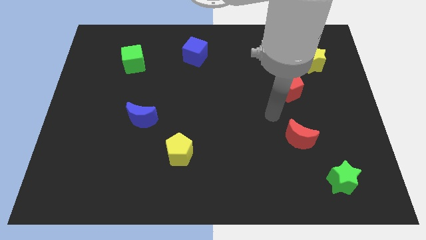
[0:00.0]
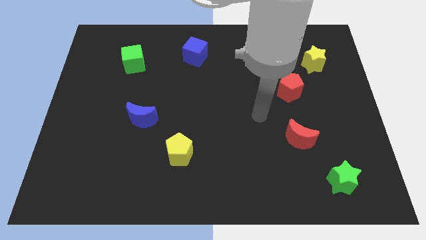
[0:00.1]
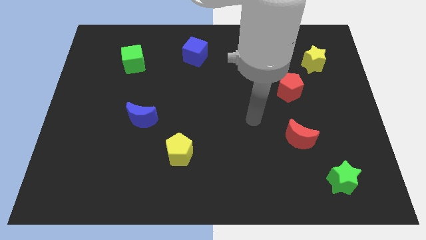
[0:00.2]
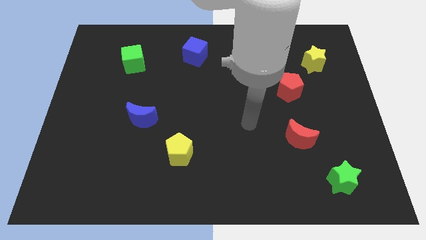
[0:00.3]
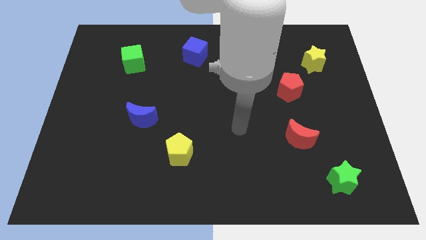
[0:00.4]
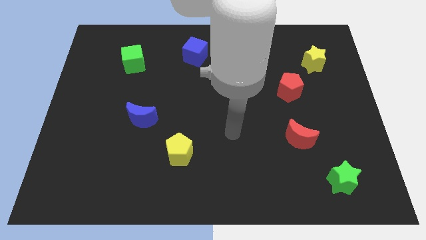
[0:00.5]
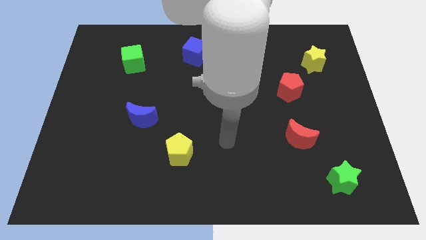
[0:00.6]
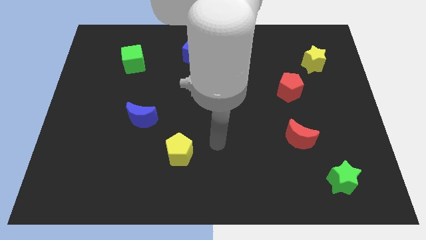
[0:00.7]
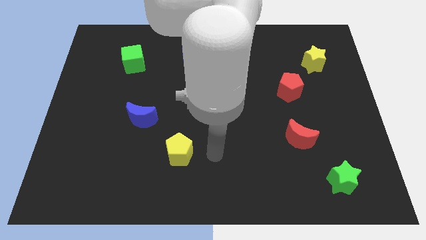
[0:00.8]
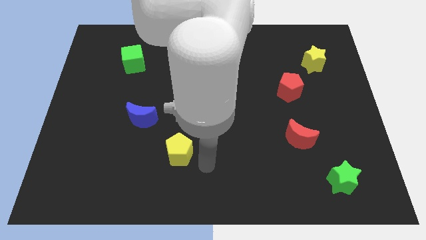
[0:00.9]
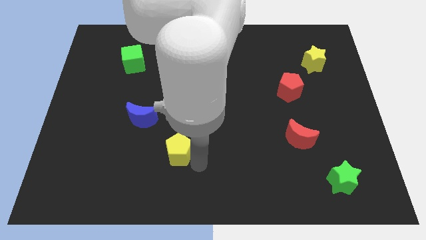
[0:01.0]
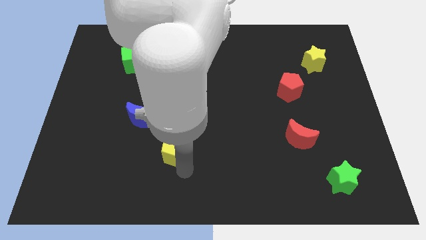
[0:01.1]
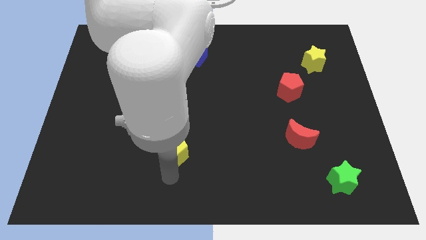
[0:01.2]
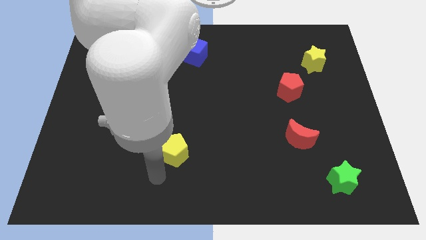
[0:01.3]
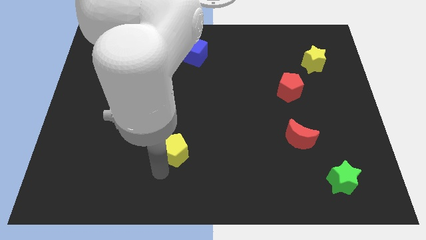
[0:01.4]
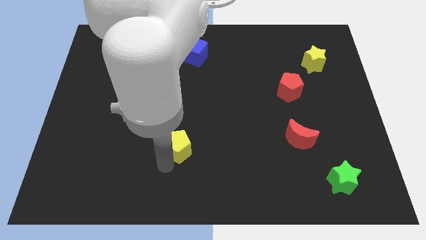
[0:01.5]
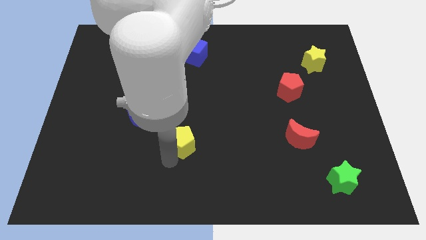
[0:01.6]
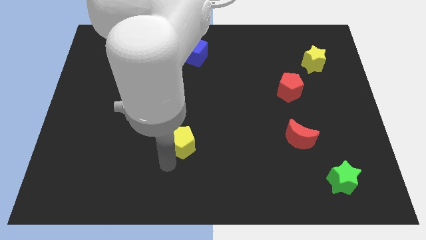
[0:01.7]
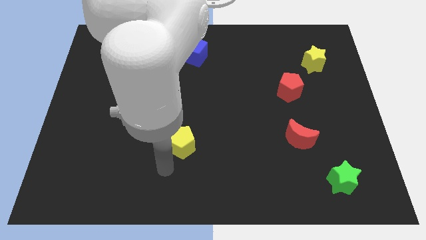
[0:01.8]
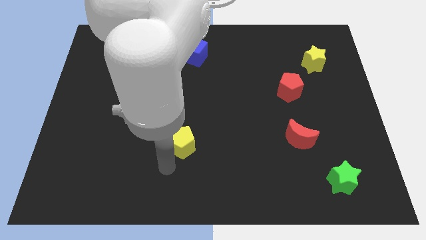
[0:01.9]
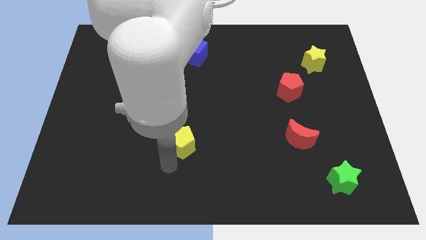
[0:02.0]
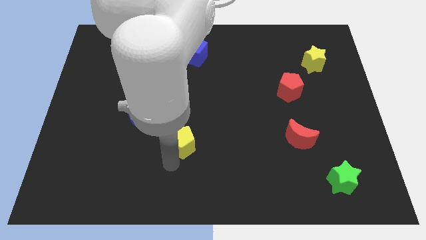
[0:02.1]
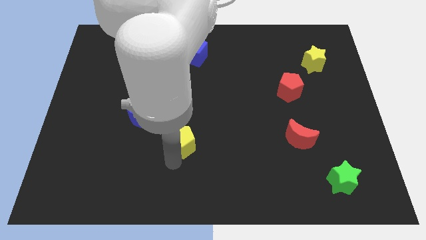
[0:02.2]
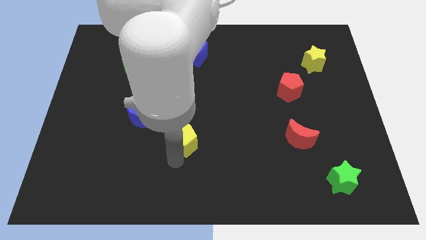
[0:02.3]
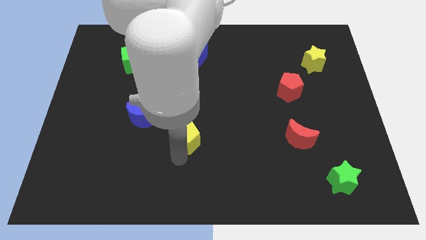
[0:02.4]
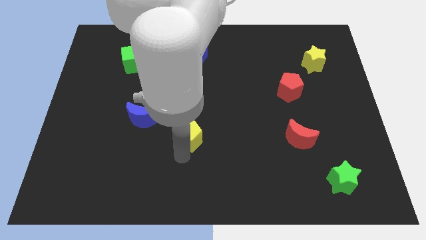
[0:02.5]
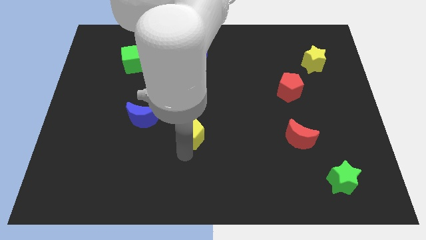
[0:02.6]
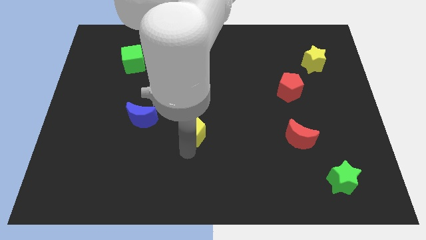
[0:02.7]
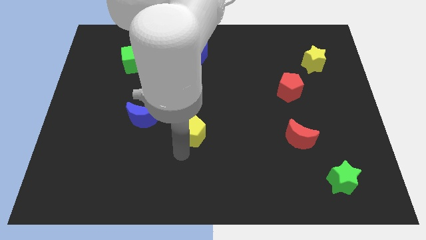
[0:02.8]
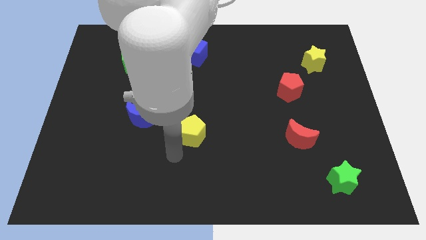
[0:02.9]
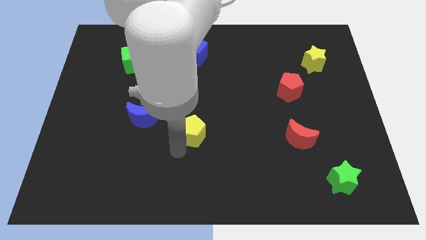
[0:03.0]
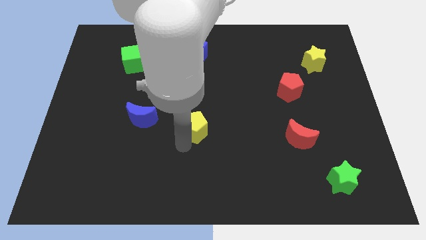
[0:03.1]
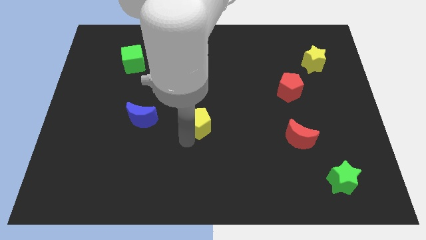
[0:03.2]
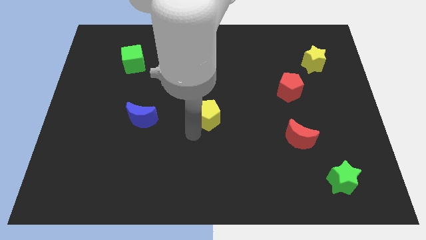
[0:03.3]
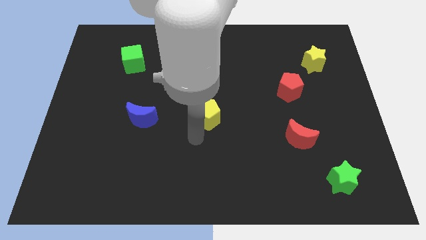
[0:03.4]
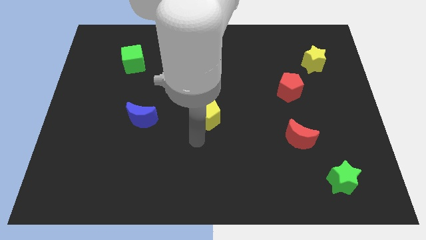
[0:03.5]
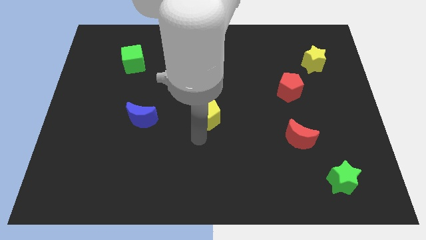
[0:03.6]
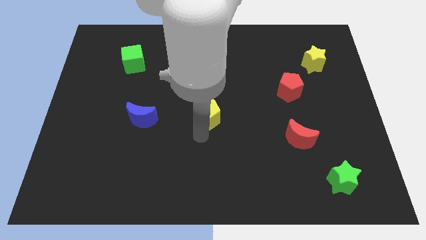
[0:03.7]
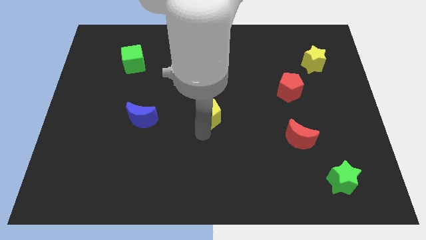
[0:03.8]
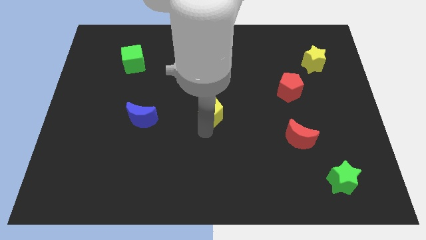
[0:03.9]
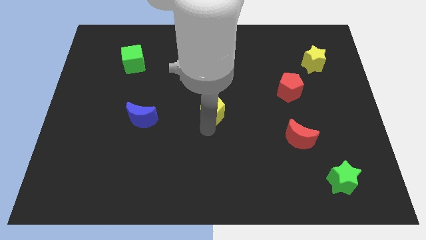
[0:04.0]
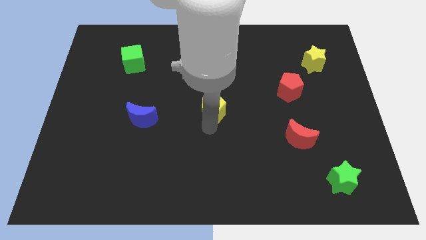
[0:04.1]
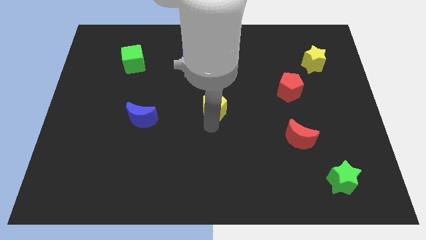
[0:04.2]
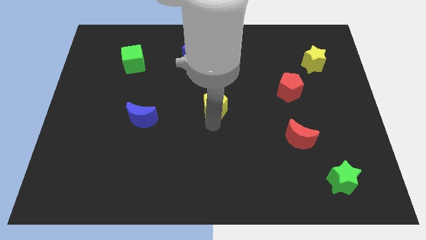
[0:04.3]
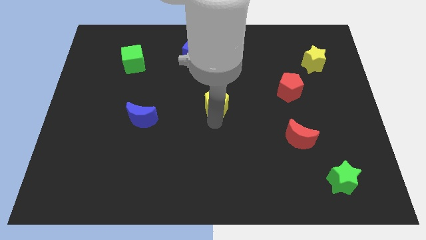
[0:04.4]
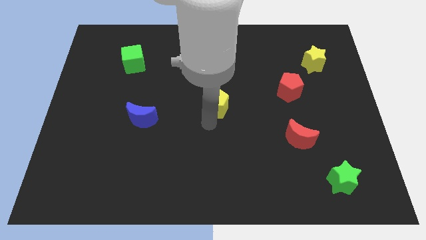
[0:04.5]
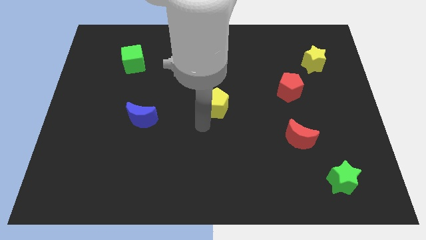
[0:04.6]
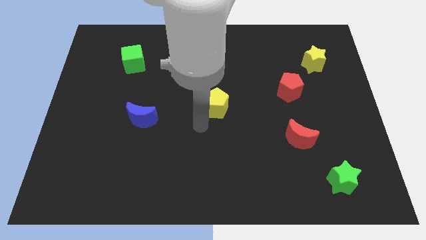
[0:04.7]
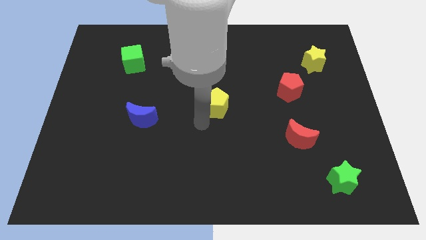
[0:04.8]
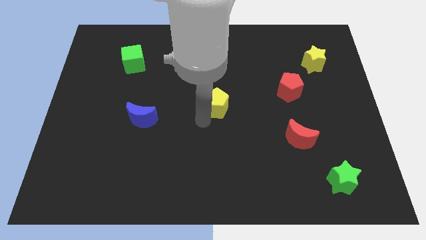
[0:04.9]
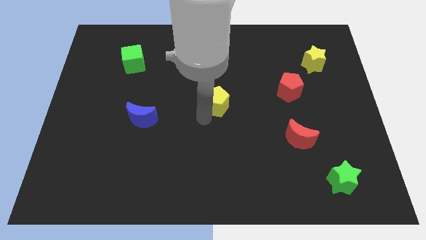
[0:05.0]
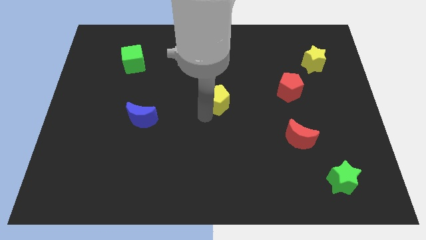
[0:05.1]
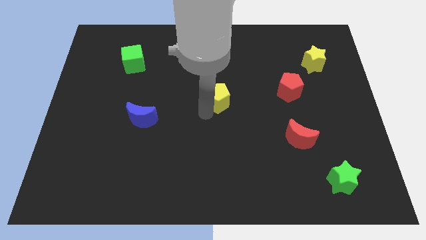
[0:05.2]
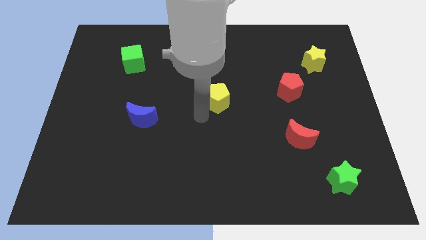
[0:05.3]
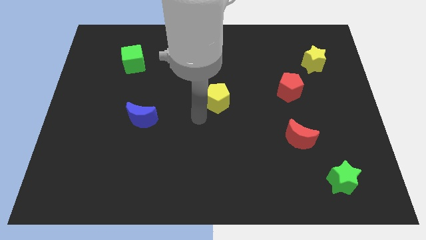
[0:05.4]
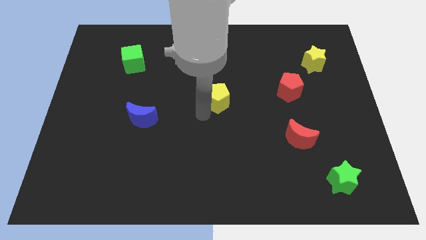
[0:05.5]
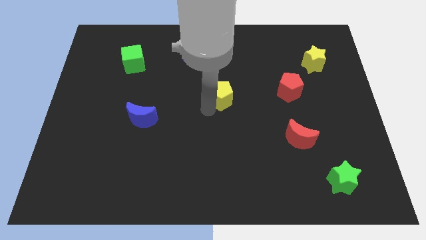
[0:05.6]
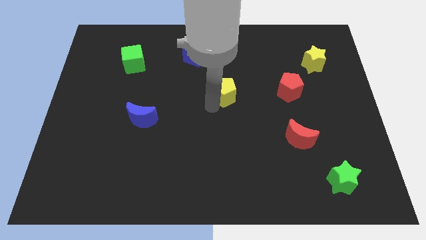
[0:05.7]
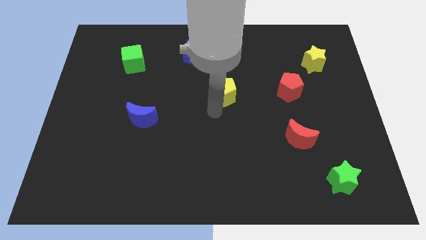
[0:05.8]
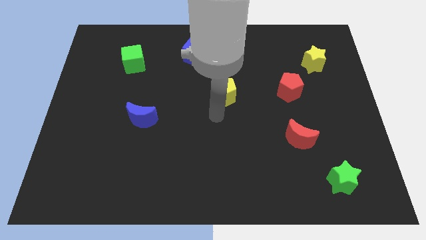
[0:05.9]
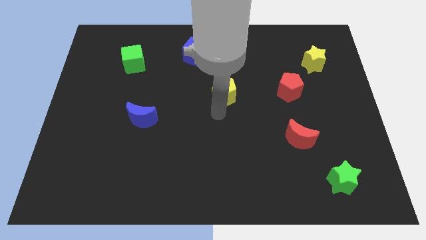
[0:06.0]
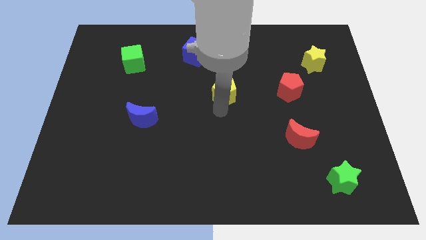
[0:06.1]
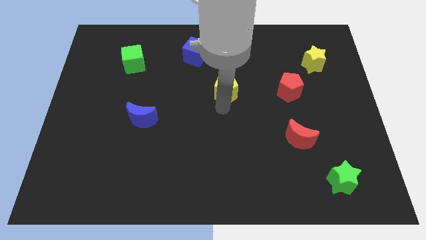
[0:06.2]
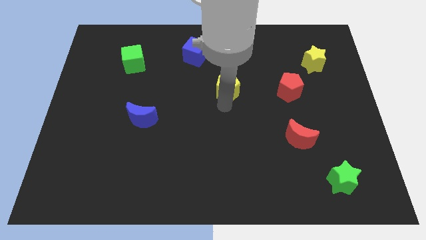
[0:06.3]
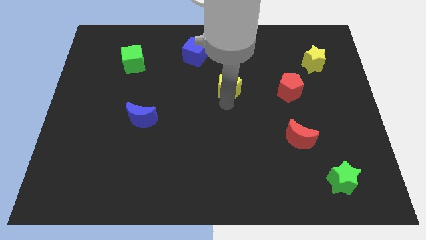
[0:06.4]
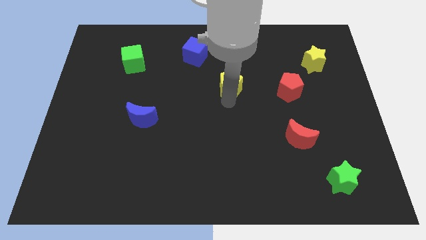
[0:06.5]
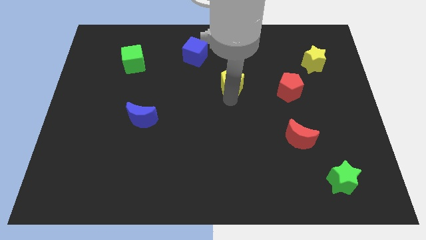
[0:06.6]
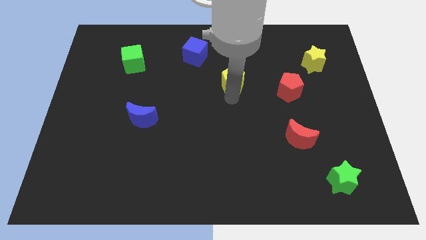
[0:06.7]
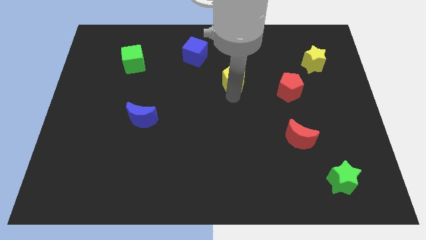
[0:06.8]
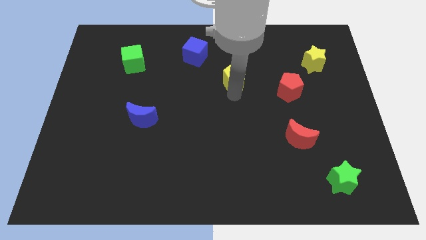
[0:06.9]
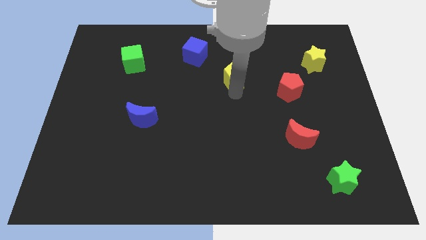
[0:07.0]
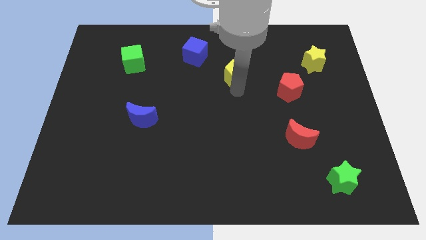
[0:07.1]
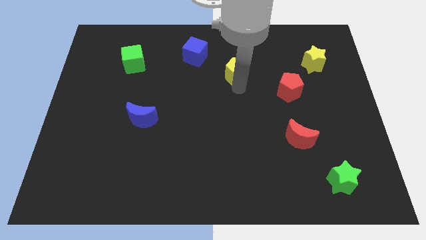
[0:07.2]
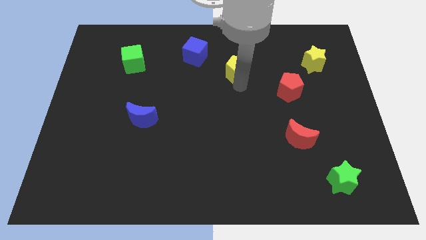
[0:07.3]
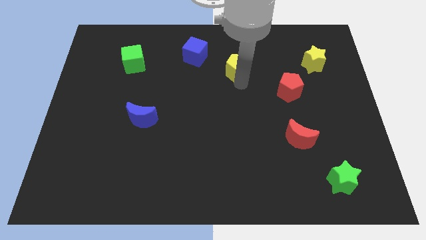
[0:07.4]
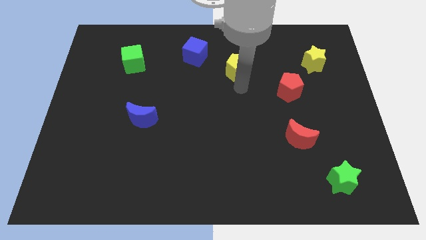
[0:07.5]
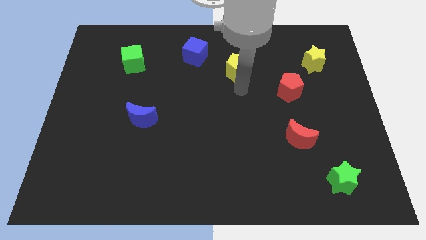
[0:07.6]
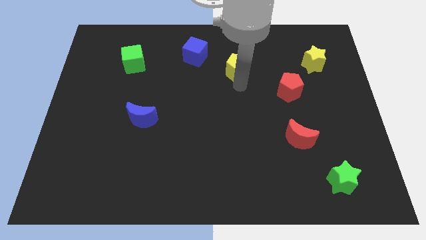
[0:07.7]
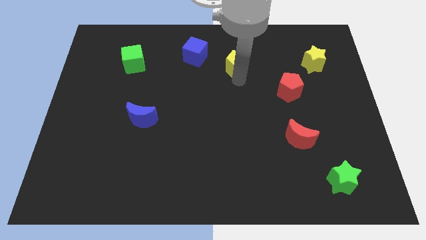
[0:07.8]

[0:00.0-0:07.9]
push the yellow pentagon just right of the blue cube
